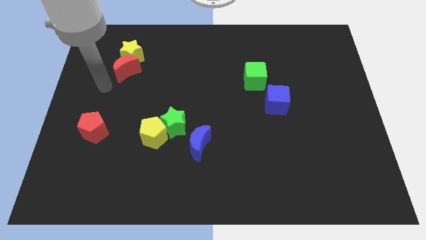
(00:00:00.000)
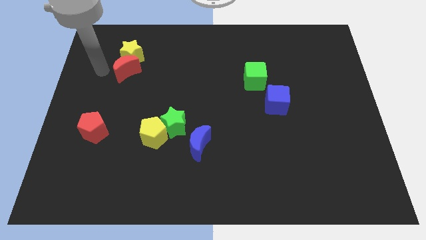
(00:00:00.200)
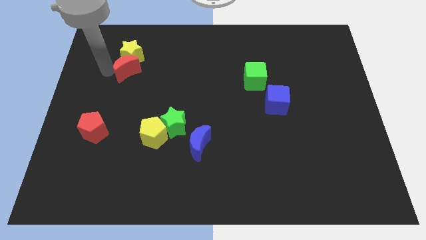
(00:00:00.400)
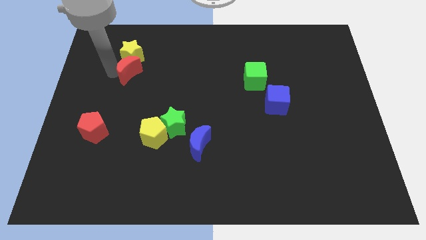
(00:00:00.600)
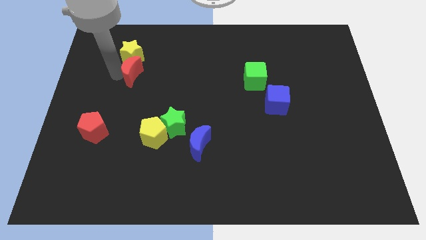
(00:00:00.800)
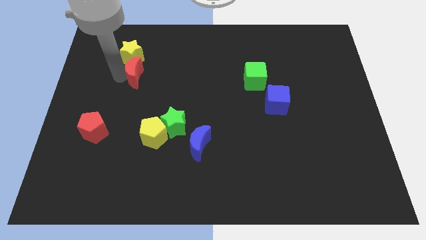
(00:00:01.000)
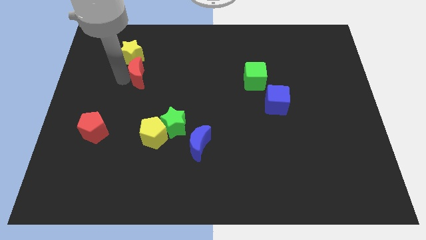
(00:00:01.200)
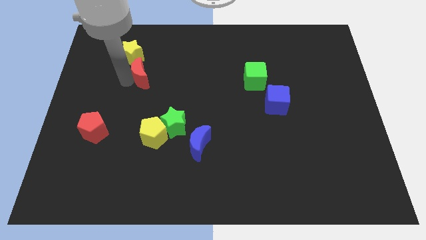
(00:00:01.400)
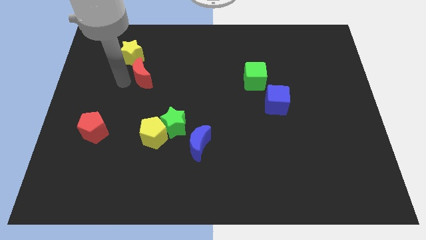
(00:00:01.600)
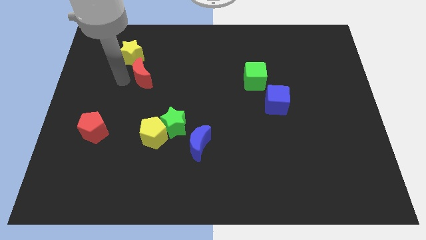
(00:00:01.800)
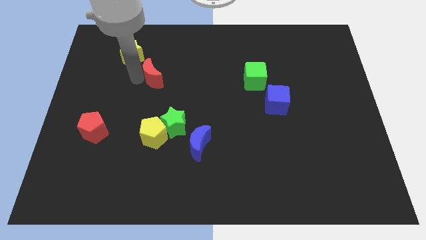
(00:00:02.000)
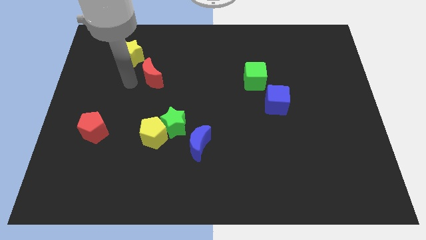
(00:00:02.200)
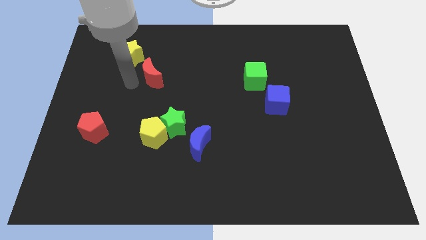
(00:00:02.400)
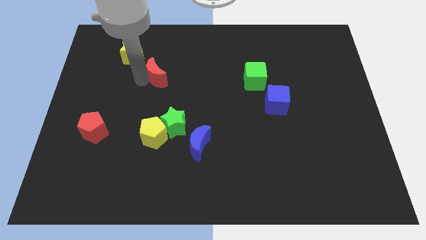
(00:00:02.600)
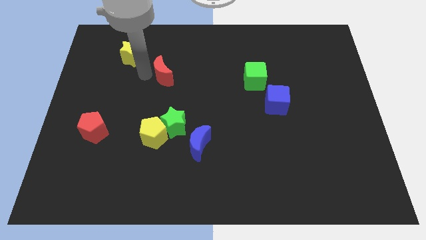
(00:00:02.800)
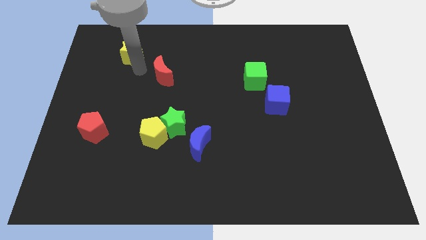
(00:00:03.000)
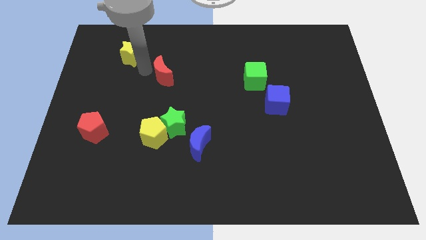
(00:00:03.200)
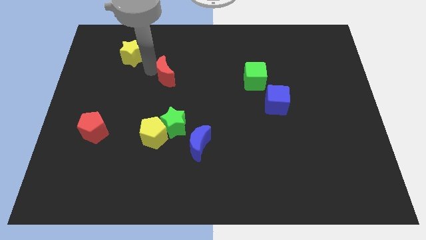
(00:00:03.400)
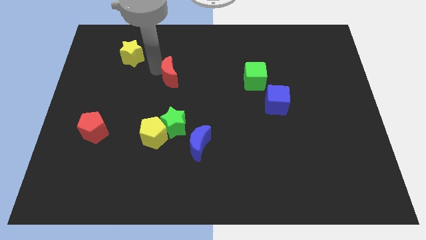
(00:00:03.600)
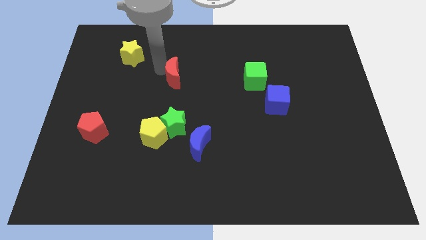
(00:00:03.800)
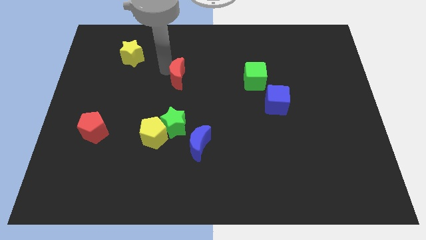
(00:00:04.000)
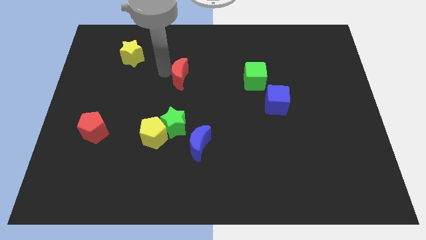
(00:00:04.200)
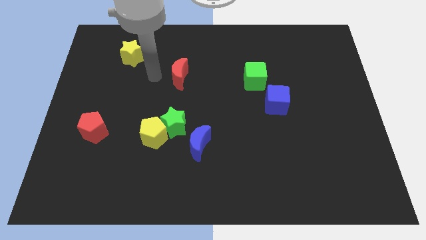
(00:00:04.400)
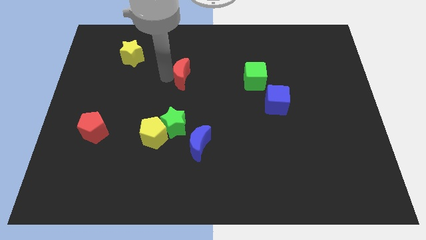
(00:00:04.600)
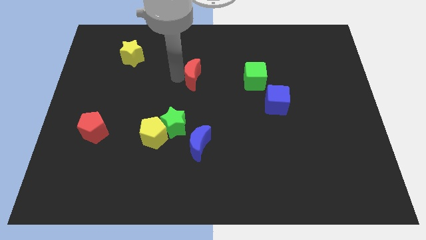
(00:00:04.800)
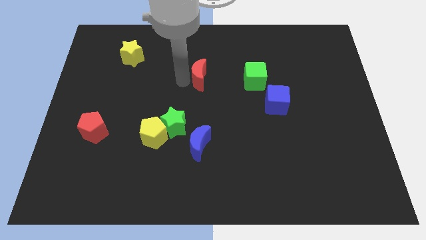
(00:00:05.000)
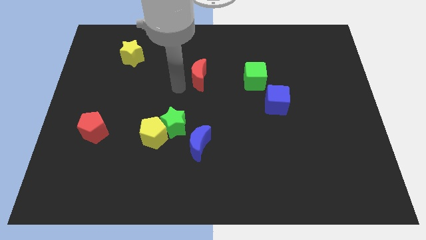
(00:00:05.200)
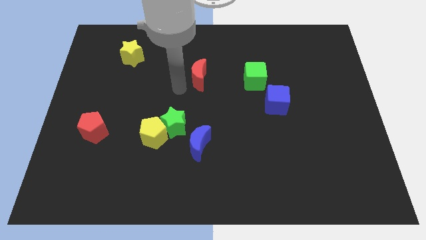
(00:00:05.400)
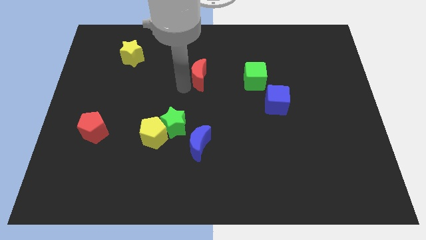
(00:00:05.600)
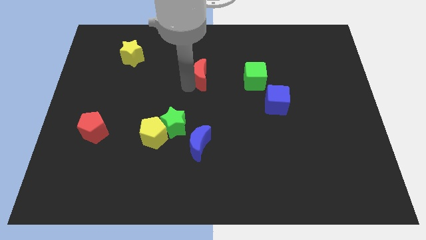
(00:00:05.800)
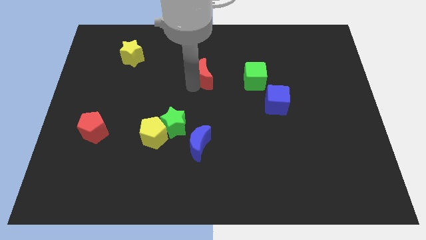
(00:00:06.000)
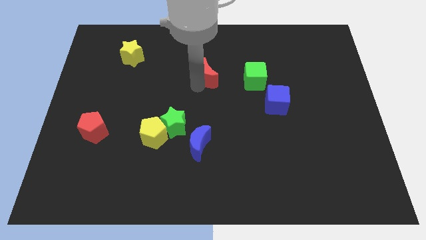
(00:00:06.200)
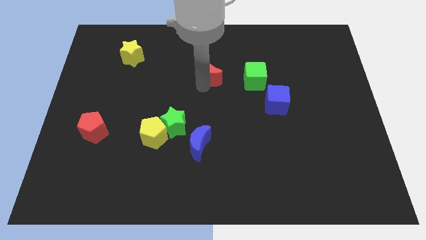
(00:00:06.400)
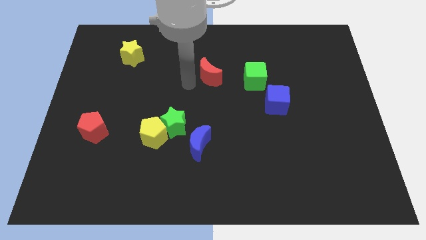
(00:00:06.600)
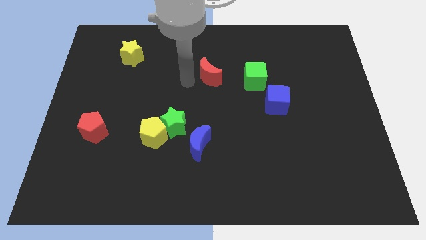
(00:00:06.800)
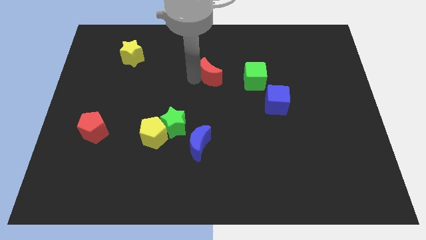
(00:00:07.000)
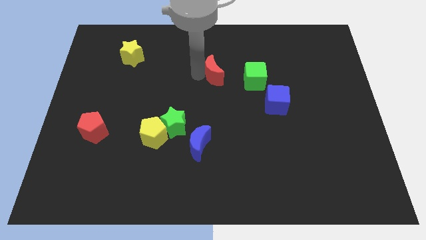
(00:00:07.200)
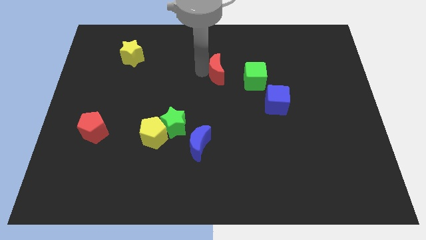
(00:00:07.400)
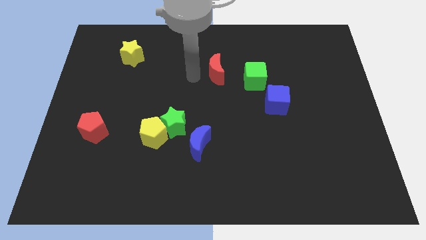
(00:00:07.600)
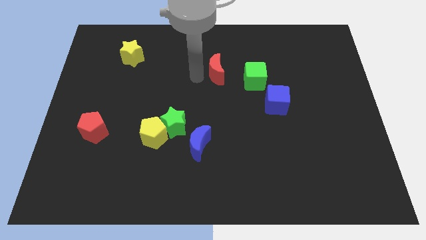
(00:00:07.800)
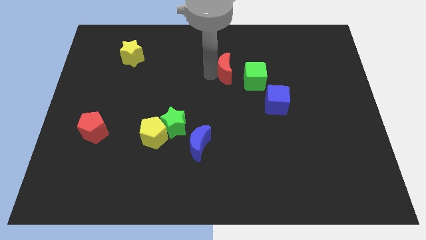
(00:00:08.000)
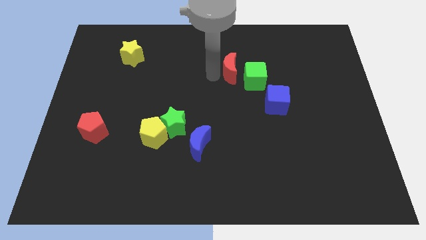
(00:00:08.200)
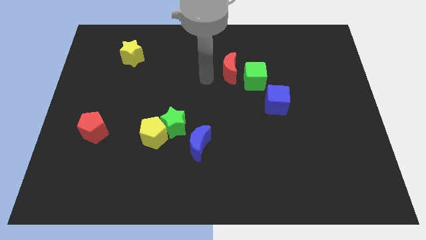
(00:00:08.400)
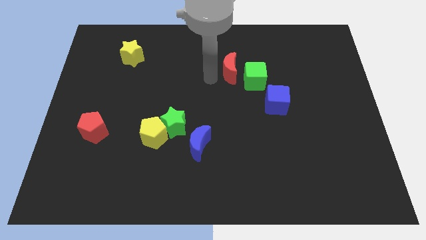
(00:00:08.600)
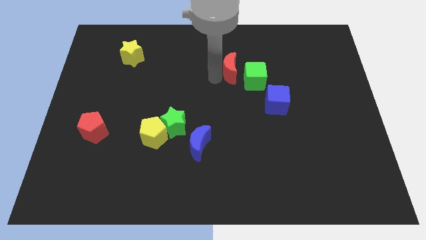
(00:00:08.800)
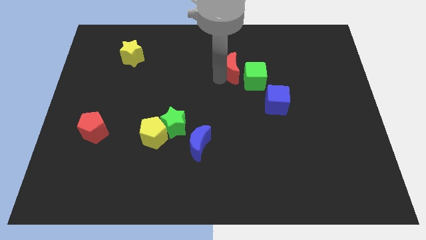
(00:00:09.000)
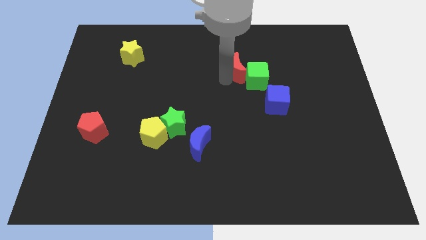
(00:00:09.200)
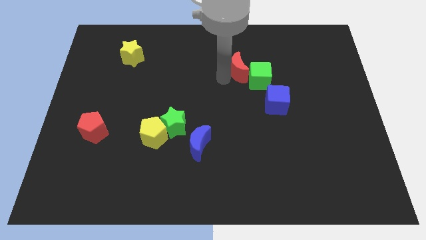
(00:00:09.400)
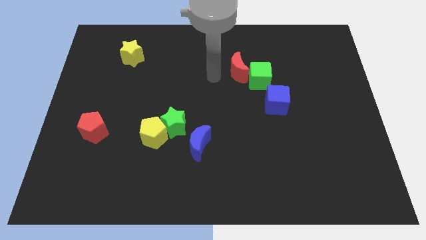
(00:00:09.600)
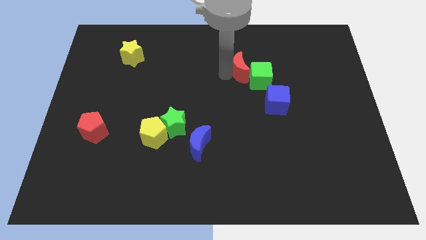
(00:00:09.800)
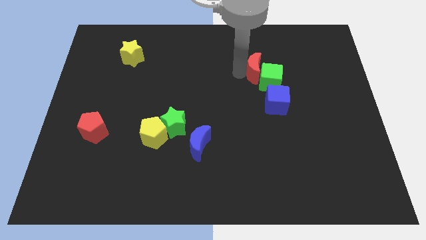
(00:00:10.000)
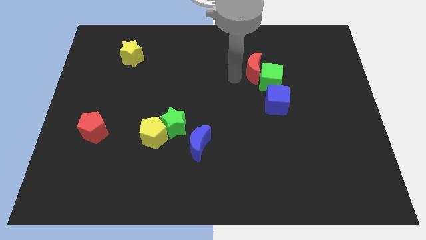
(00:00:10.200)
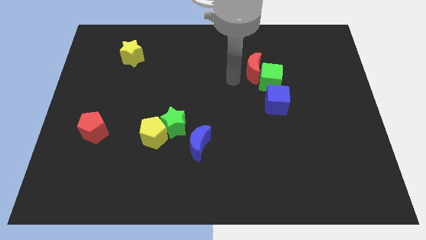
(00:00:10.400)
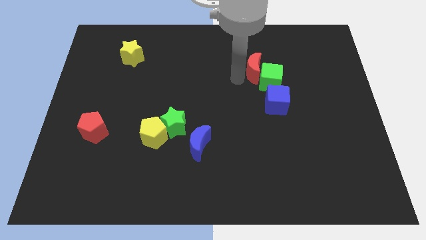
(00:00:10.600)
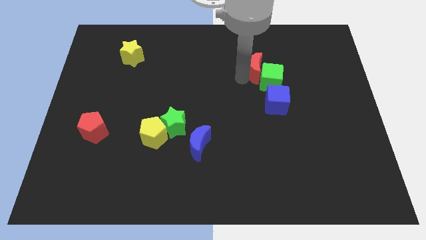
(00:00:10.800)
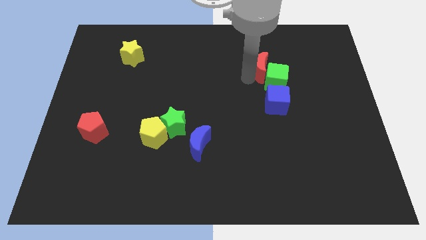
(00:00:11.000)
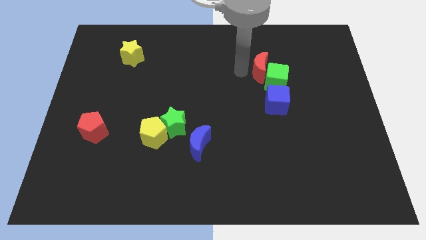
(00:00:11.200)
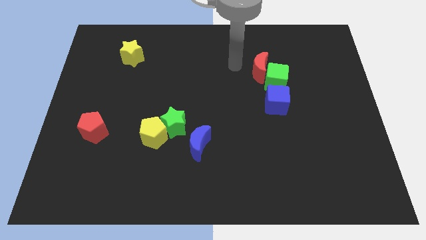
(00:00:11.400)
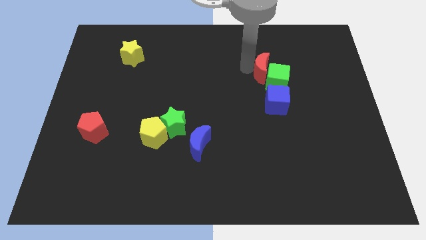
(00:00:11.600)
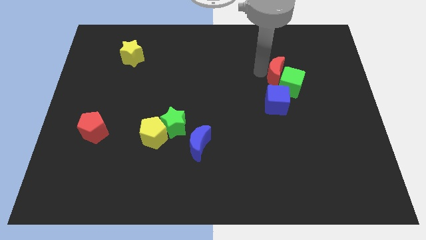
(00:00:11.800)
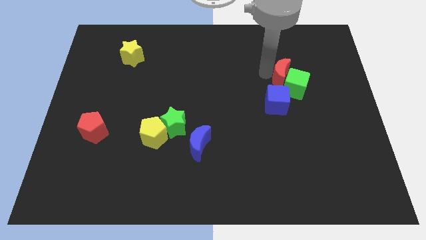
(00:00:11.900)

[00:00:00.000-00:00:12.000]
move the red moon to the top right of the blue cube

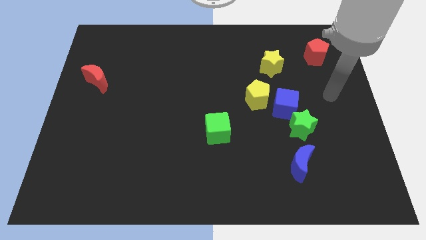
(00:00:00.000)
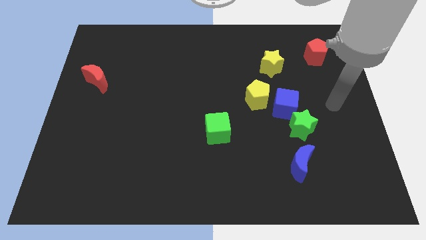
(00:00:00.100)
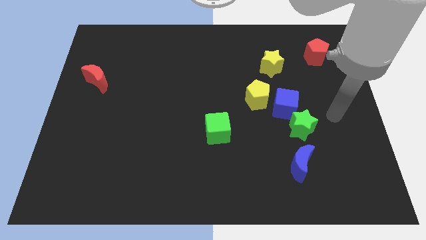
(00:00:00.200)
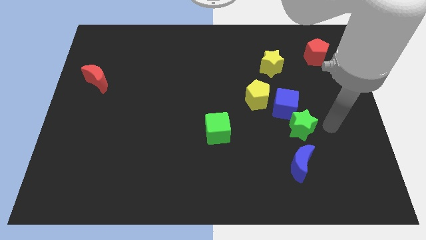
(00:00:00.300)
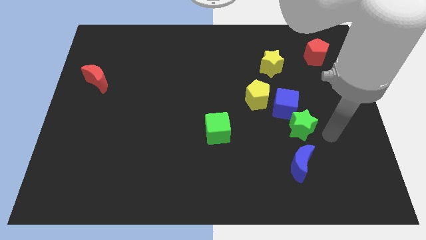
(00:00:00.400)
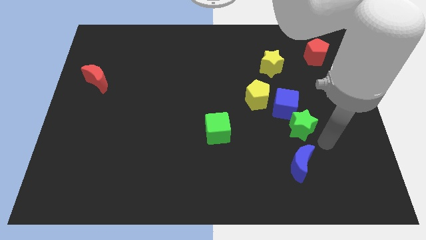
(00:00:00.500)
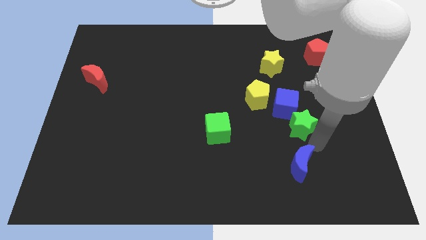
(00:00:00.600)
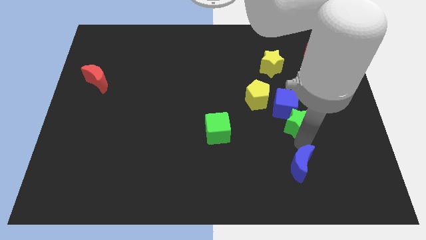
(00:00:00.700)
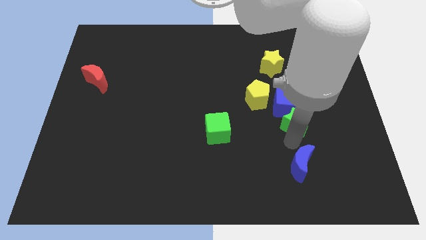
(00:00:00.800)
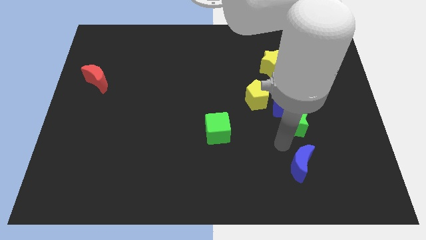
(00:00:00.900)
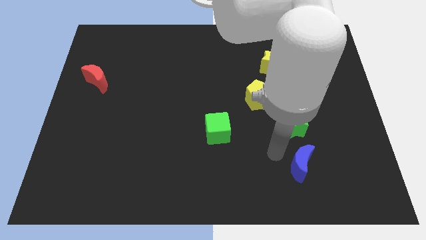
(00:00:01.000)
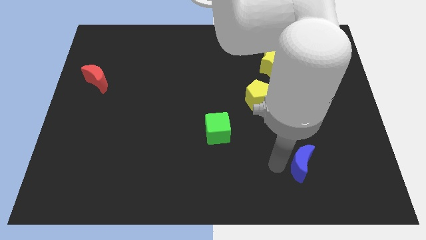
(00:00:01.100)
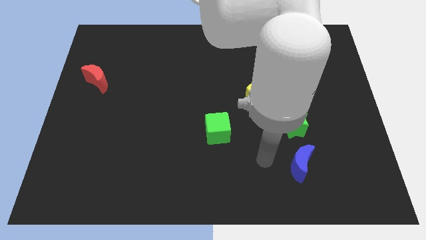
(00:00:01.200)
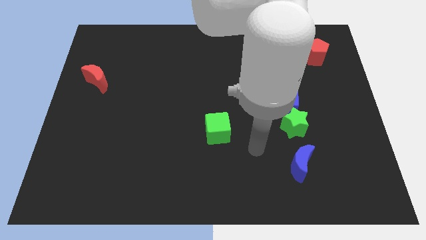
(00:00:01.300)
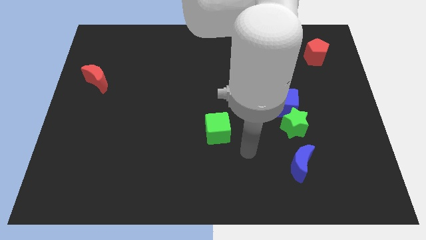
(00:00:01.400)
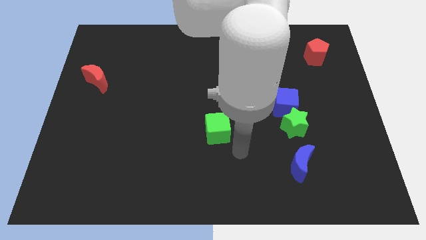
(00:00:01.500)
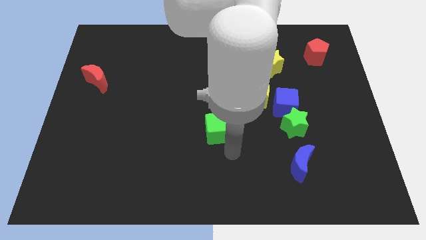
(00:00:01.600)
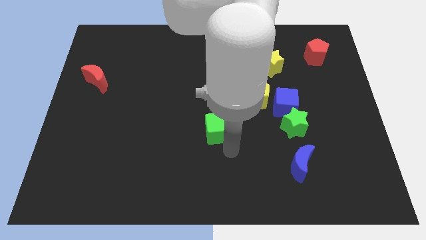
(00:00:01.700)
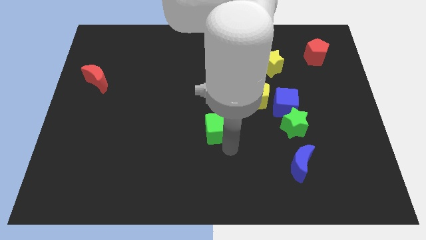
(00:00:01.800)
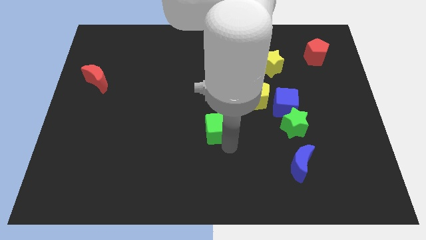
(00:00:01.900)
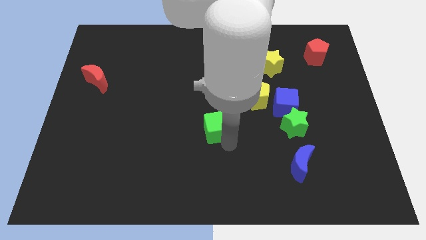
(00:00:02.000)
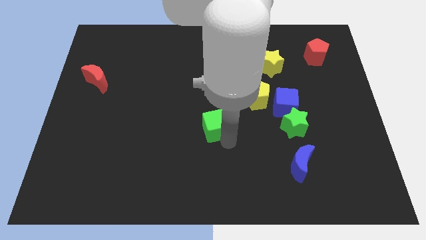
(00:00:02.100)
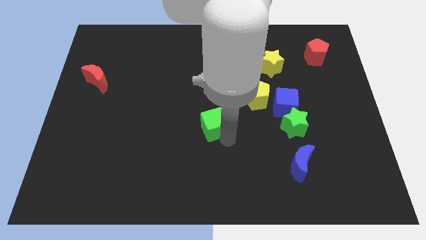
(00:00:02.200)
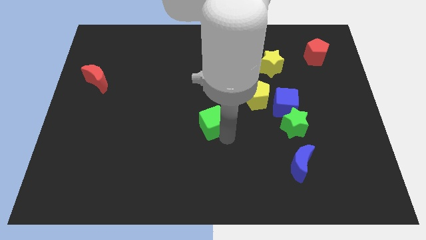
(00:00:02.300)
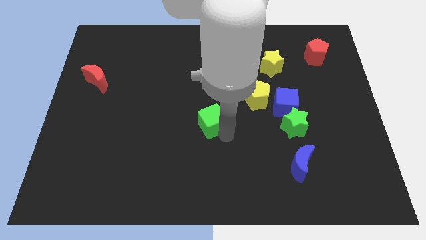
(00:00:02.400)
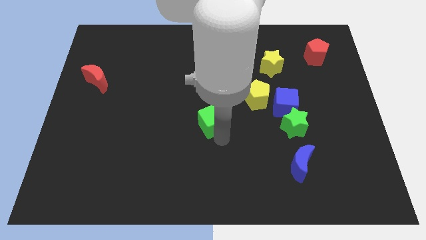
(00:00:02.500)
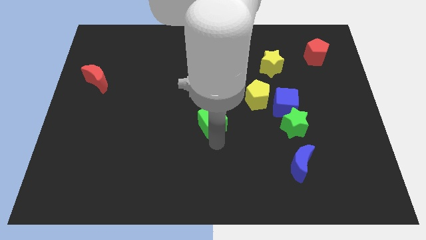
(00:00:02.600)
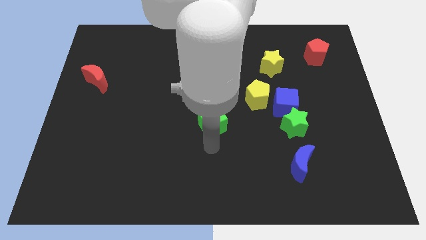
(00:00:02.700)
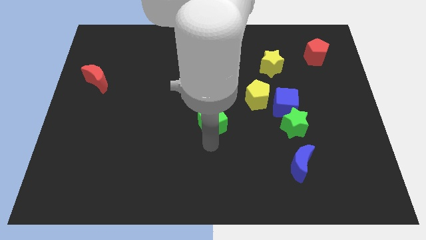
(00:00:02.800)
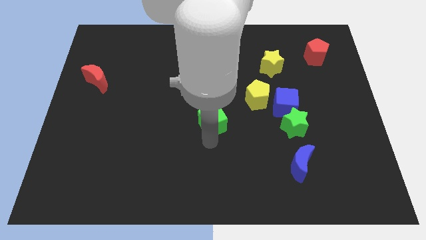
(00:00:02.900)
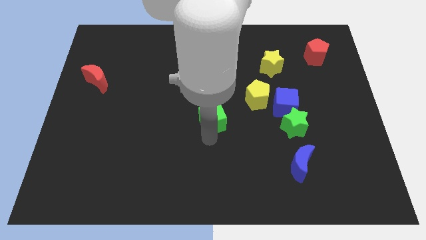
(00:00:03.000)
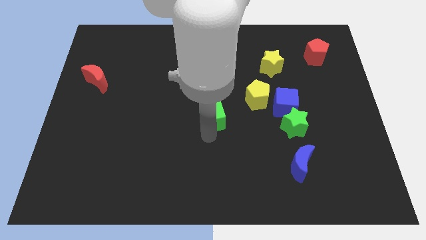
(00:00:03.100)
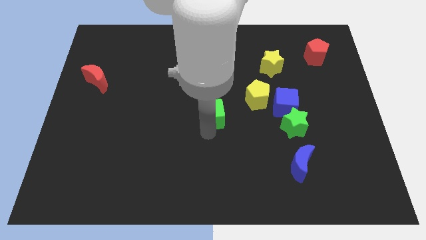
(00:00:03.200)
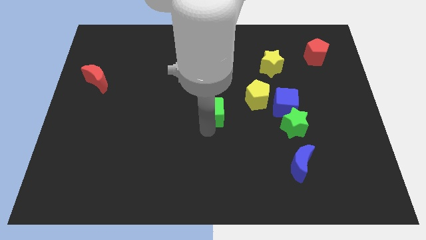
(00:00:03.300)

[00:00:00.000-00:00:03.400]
put the green cube just left of the yellow pentagon
